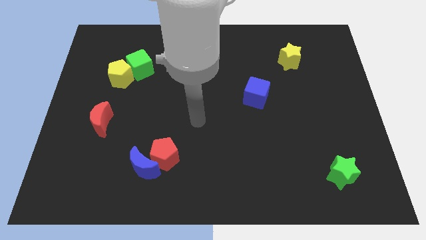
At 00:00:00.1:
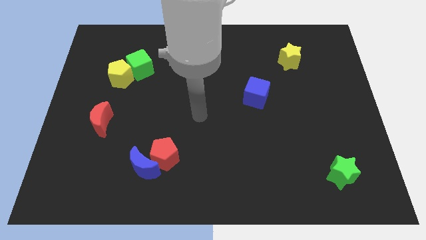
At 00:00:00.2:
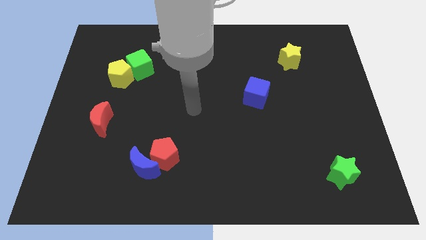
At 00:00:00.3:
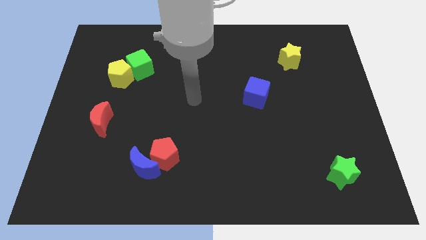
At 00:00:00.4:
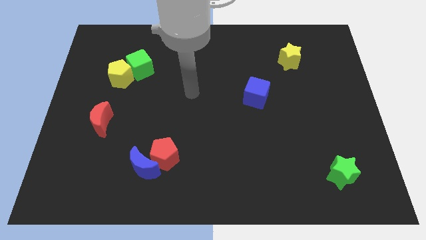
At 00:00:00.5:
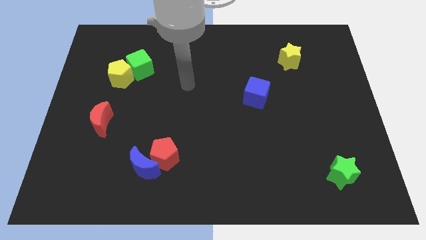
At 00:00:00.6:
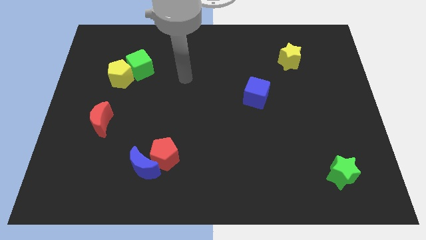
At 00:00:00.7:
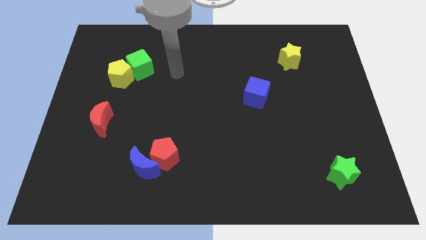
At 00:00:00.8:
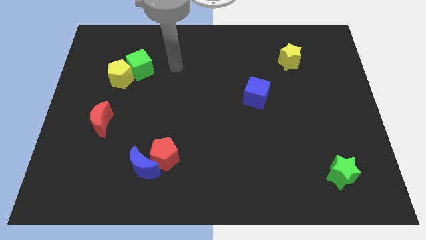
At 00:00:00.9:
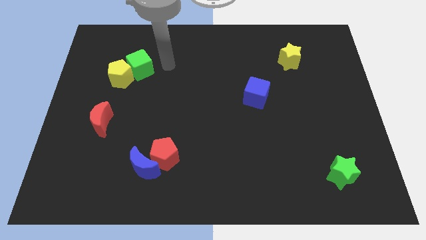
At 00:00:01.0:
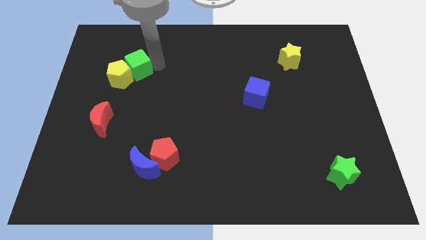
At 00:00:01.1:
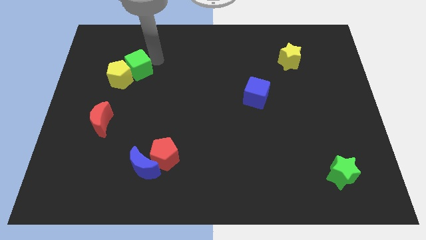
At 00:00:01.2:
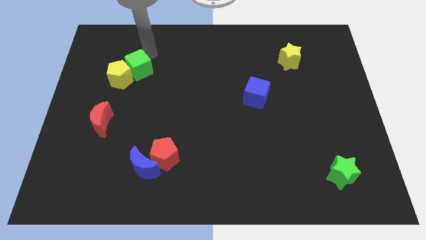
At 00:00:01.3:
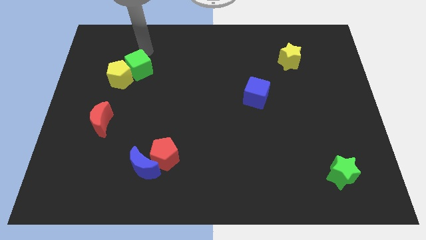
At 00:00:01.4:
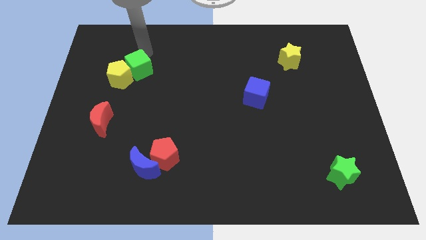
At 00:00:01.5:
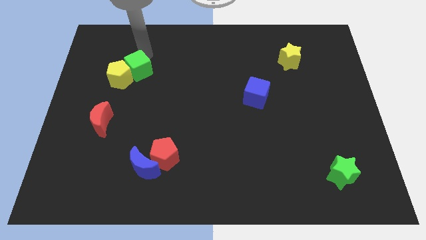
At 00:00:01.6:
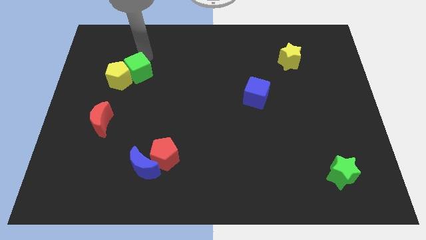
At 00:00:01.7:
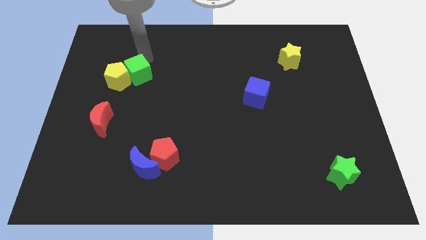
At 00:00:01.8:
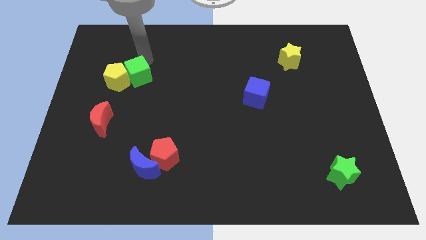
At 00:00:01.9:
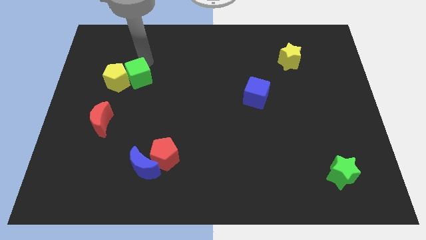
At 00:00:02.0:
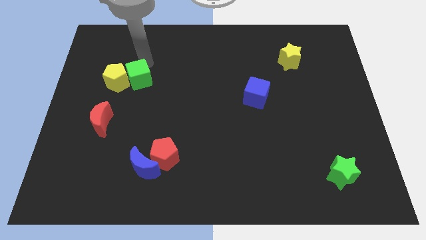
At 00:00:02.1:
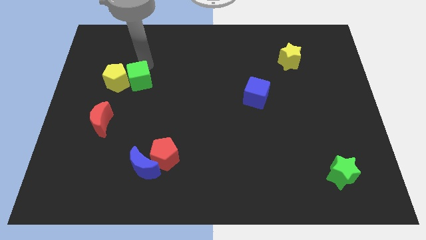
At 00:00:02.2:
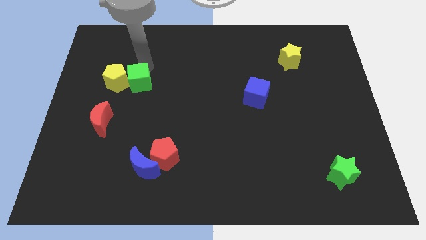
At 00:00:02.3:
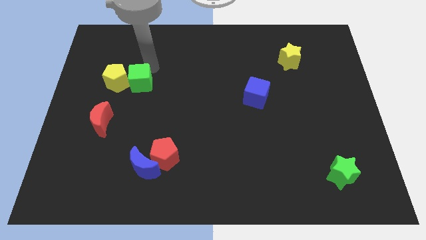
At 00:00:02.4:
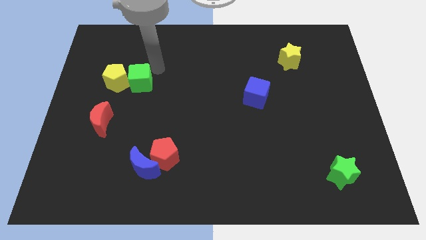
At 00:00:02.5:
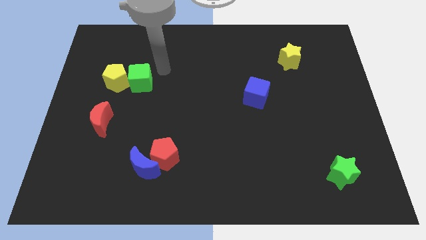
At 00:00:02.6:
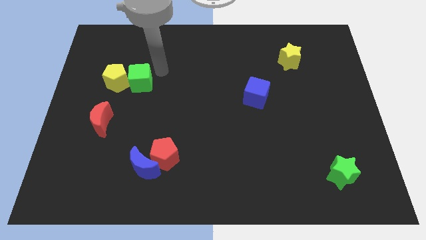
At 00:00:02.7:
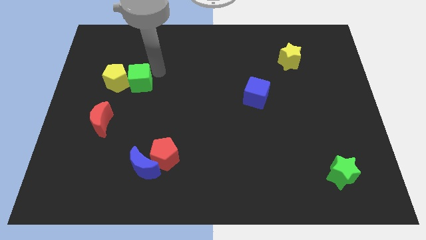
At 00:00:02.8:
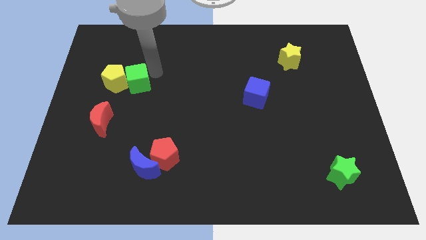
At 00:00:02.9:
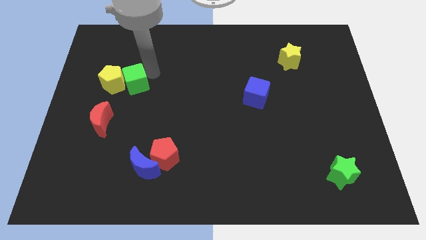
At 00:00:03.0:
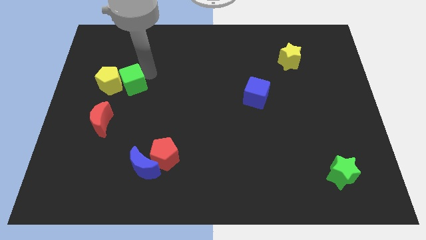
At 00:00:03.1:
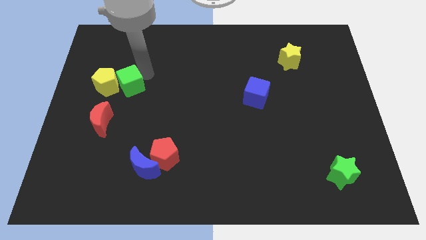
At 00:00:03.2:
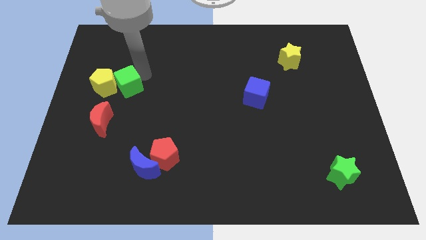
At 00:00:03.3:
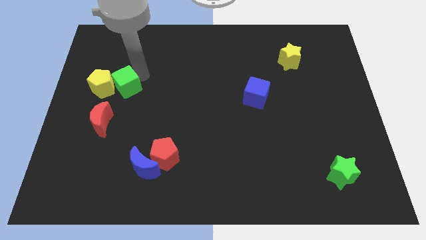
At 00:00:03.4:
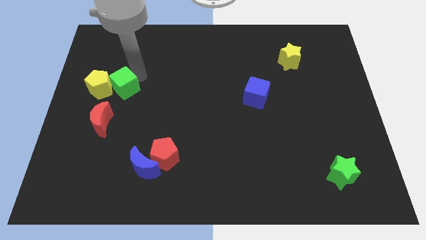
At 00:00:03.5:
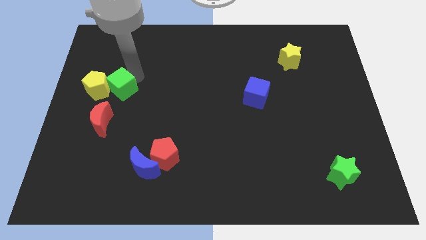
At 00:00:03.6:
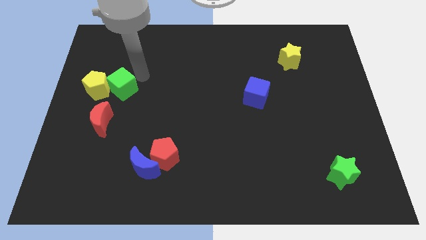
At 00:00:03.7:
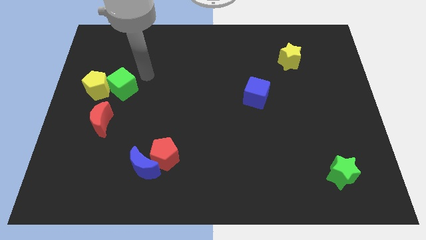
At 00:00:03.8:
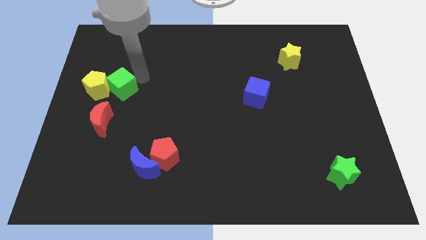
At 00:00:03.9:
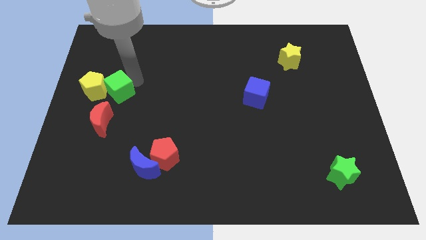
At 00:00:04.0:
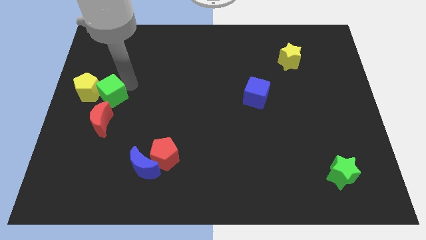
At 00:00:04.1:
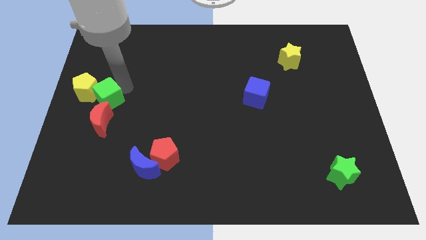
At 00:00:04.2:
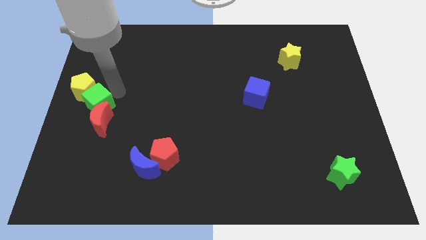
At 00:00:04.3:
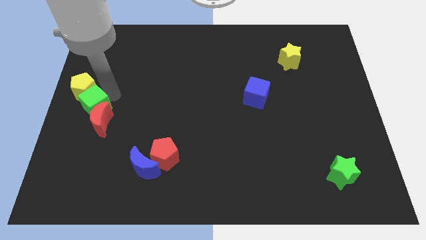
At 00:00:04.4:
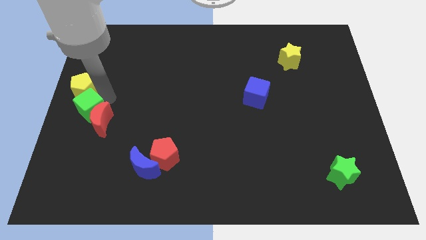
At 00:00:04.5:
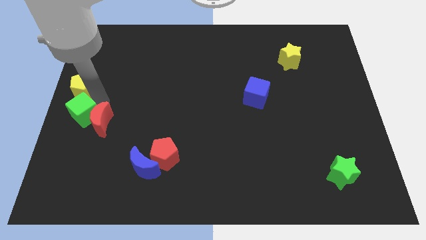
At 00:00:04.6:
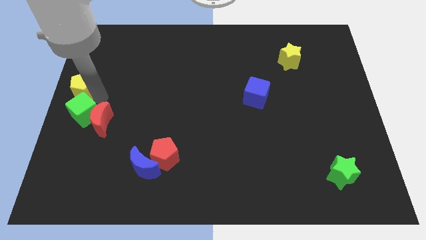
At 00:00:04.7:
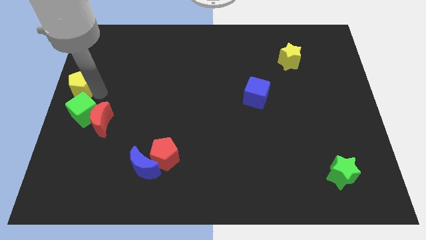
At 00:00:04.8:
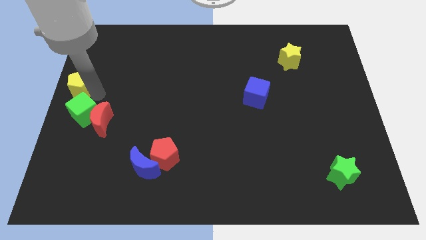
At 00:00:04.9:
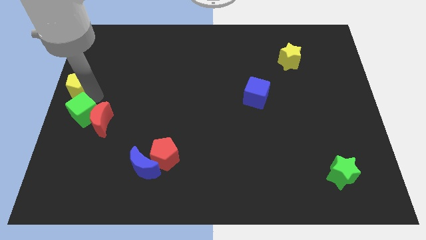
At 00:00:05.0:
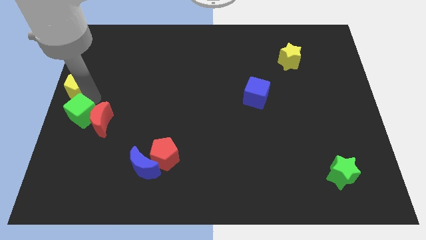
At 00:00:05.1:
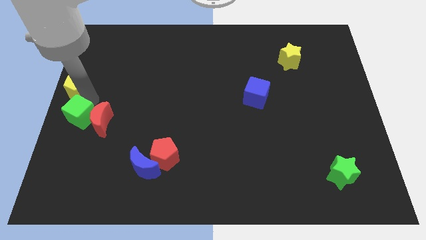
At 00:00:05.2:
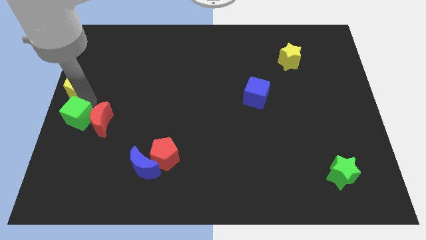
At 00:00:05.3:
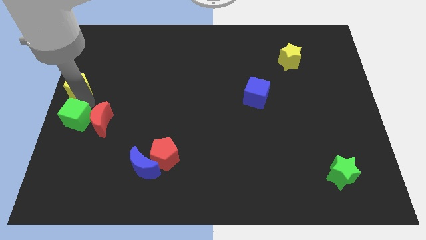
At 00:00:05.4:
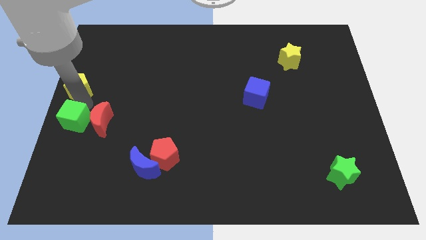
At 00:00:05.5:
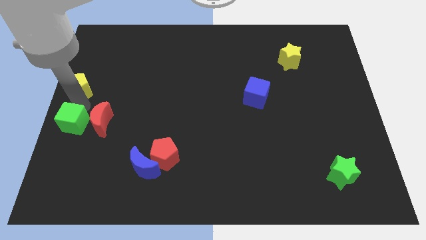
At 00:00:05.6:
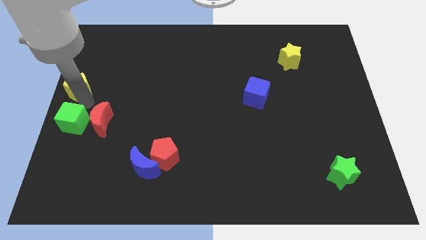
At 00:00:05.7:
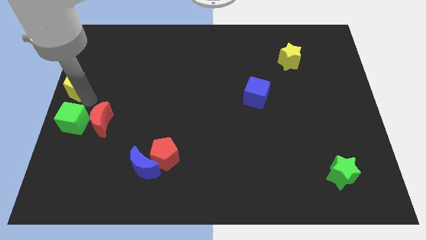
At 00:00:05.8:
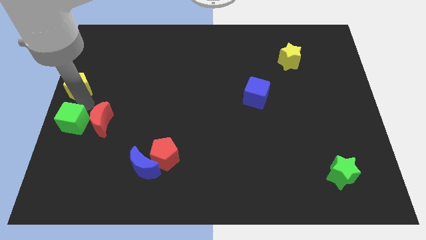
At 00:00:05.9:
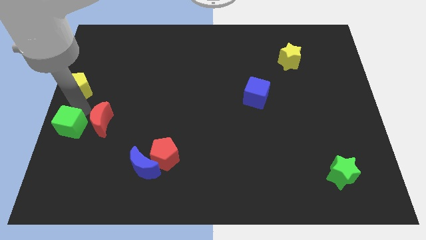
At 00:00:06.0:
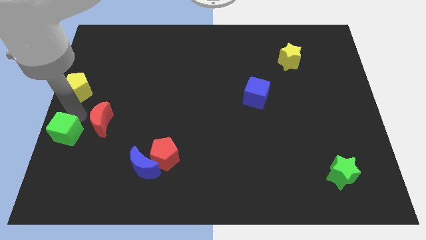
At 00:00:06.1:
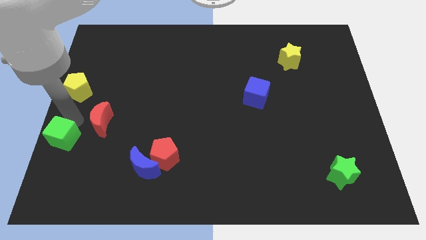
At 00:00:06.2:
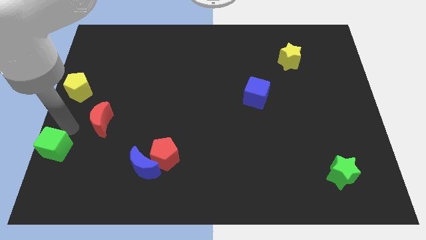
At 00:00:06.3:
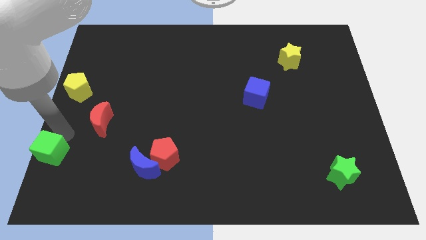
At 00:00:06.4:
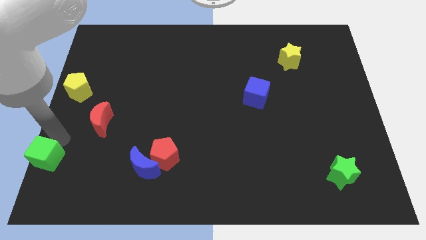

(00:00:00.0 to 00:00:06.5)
move the green cube to the bottom left

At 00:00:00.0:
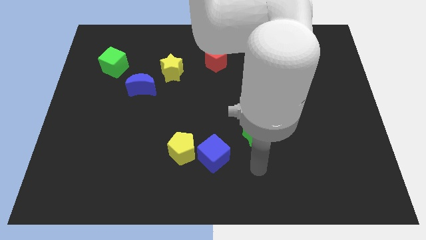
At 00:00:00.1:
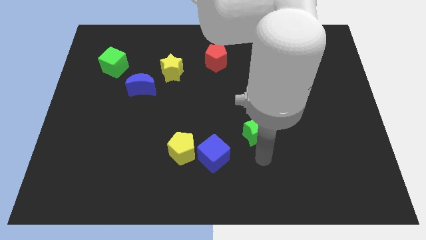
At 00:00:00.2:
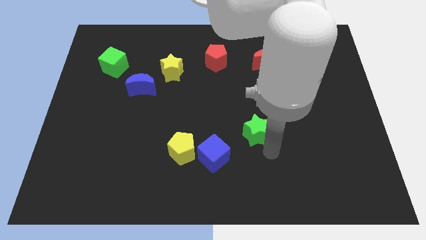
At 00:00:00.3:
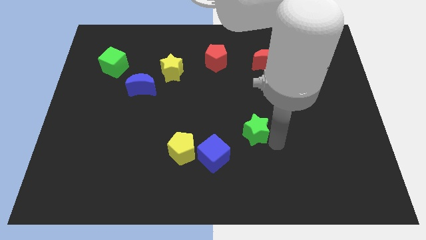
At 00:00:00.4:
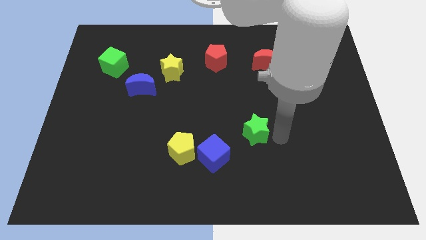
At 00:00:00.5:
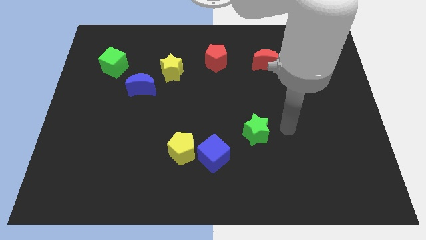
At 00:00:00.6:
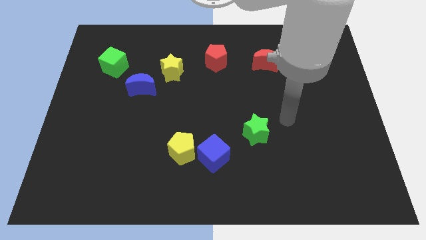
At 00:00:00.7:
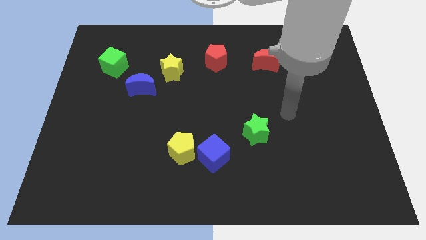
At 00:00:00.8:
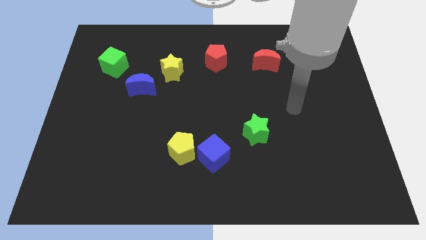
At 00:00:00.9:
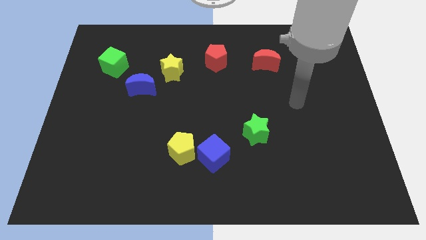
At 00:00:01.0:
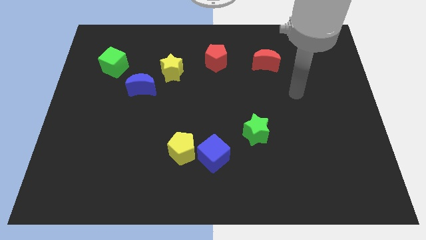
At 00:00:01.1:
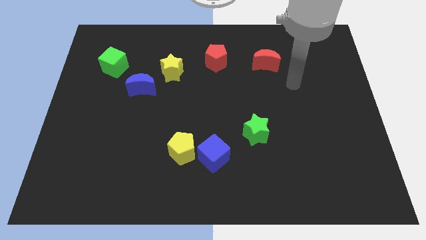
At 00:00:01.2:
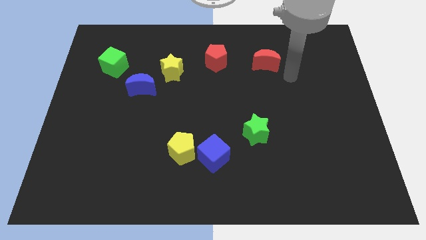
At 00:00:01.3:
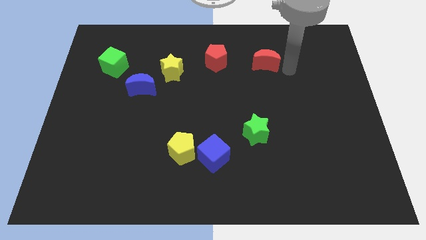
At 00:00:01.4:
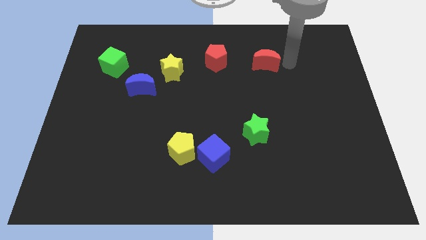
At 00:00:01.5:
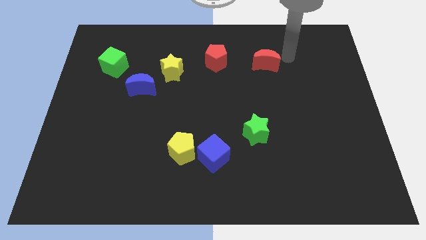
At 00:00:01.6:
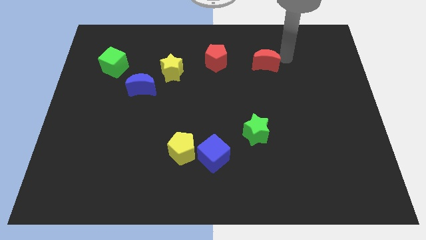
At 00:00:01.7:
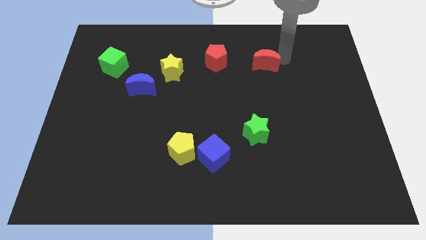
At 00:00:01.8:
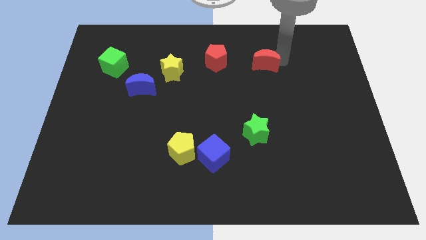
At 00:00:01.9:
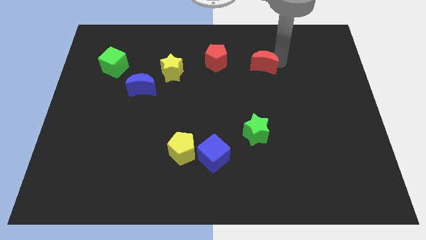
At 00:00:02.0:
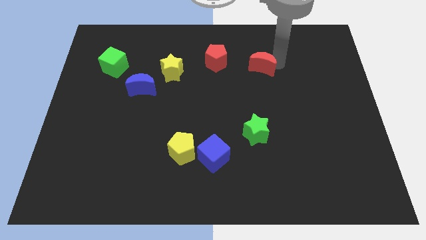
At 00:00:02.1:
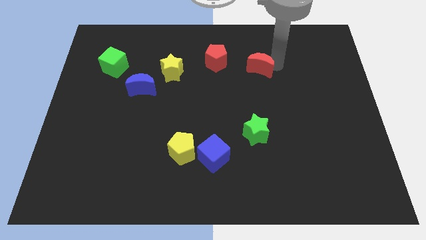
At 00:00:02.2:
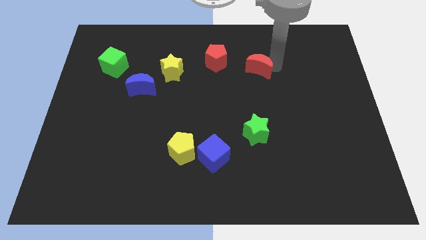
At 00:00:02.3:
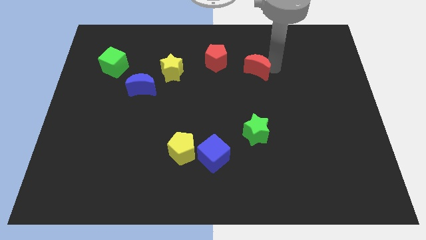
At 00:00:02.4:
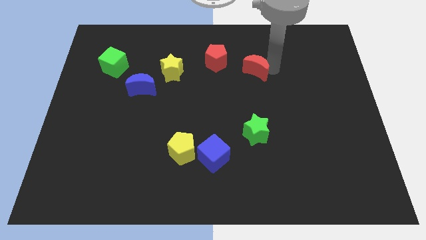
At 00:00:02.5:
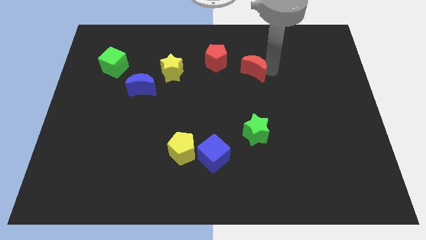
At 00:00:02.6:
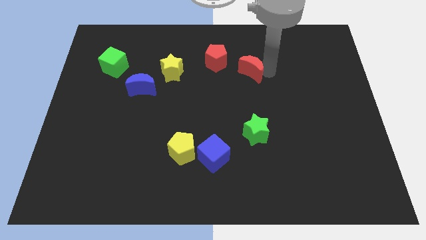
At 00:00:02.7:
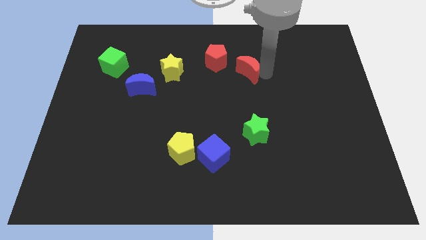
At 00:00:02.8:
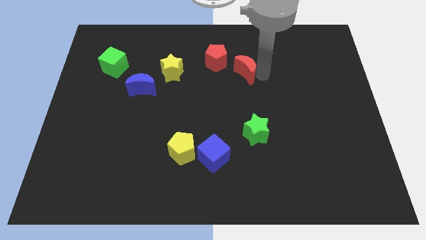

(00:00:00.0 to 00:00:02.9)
put the red moon to the center
